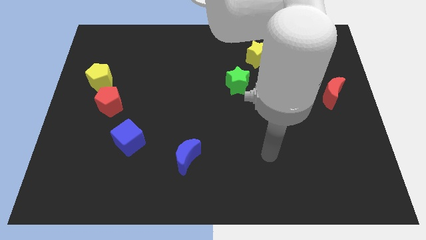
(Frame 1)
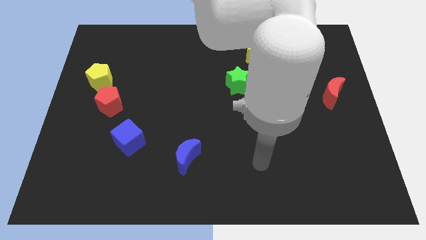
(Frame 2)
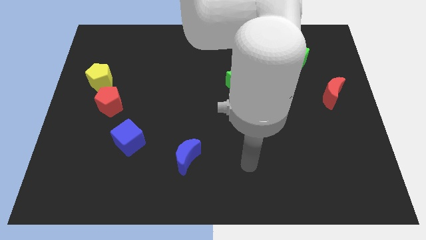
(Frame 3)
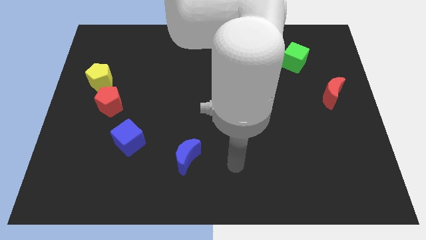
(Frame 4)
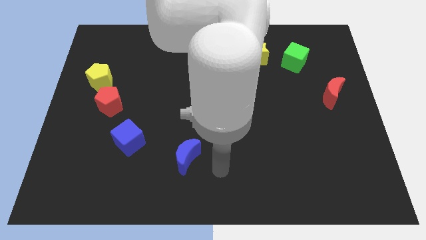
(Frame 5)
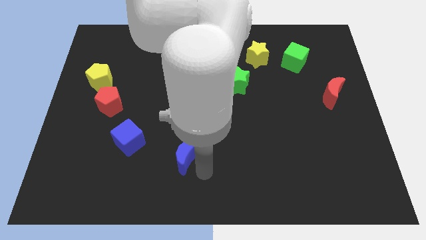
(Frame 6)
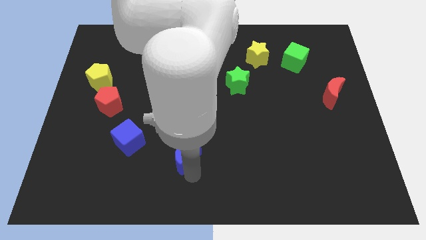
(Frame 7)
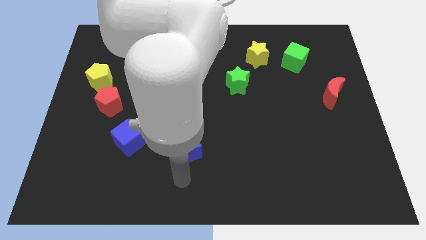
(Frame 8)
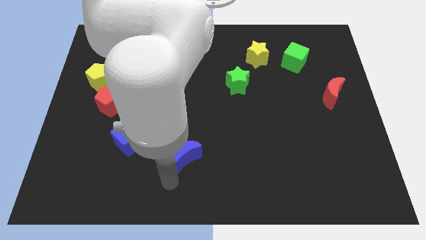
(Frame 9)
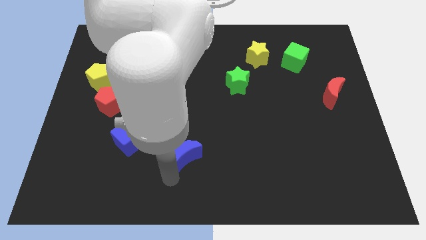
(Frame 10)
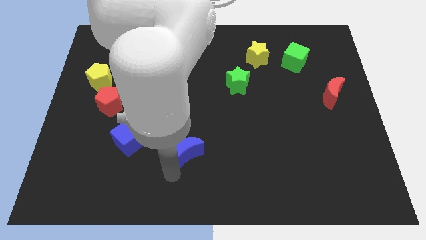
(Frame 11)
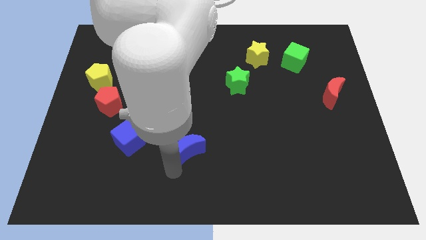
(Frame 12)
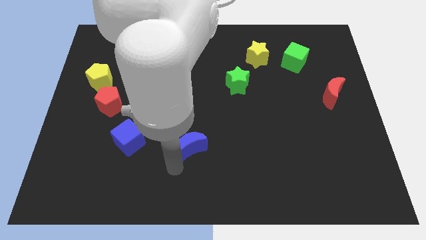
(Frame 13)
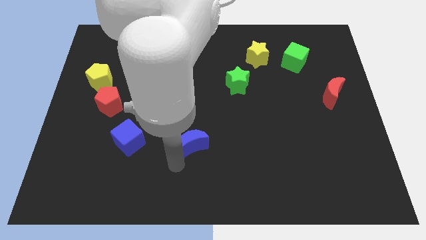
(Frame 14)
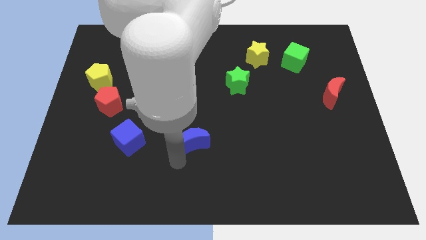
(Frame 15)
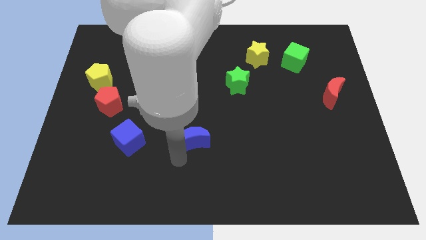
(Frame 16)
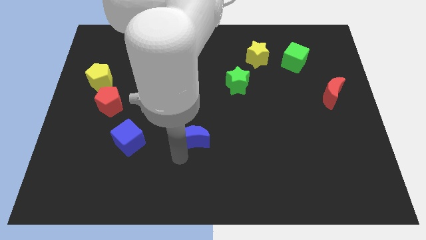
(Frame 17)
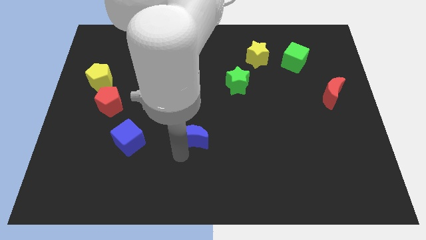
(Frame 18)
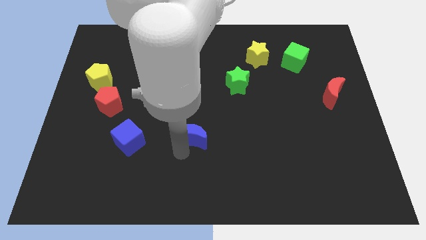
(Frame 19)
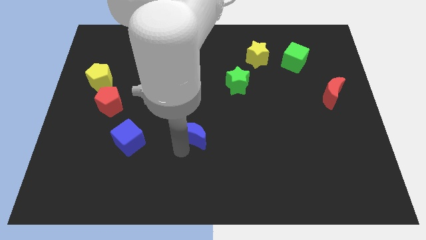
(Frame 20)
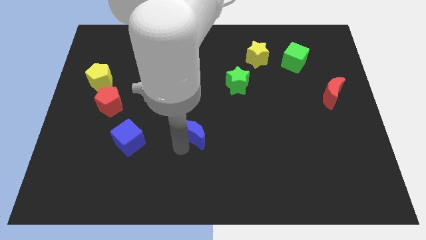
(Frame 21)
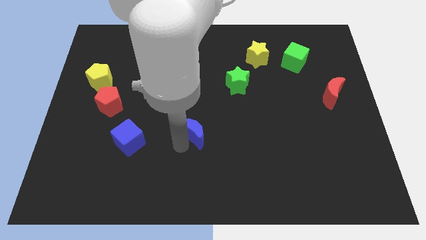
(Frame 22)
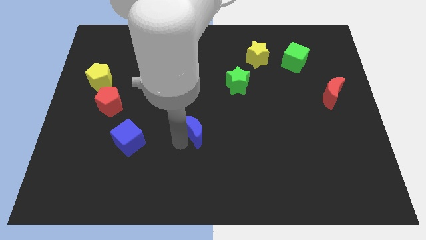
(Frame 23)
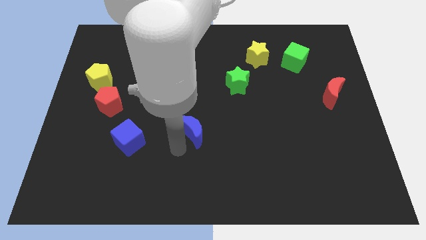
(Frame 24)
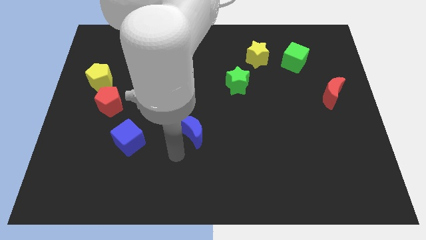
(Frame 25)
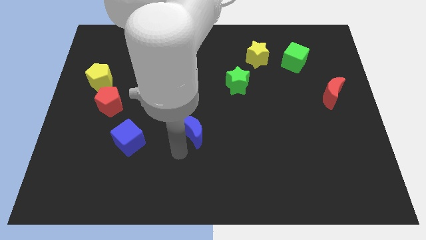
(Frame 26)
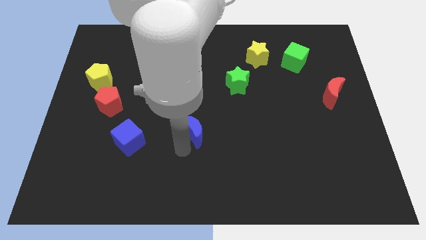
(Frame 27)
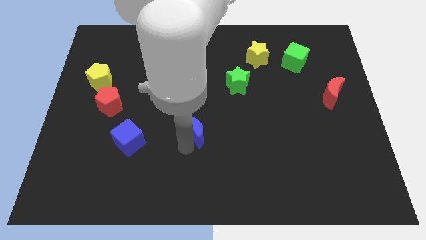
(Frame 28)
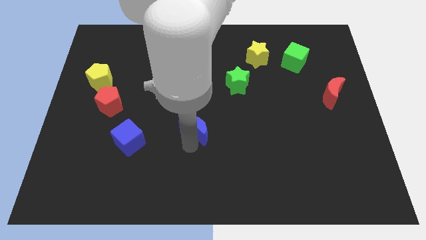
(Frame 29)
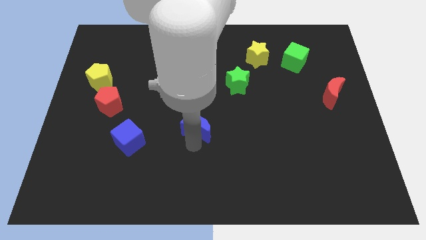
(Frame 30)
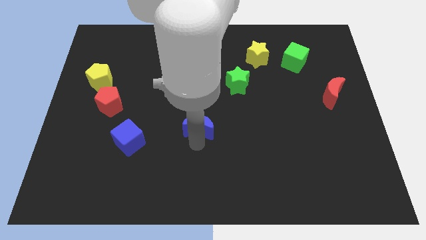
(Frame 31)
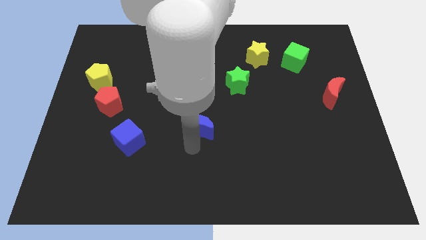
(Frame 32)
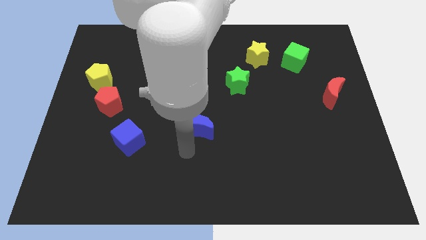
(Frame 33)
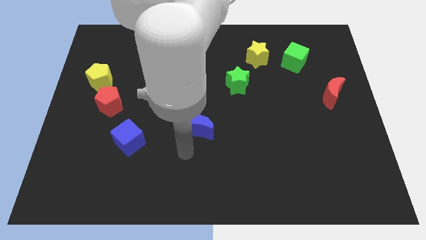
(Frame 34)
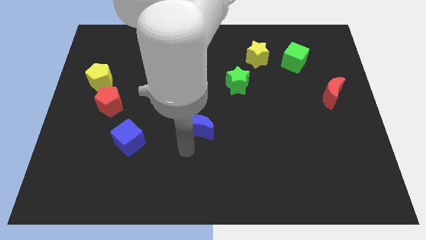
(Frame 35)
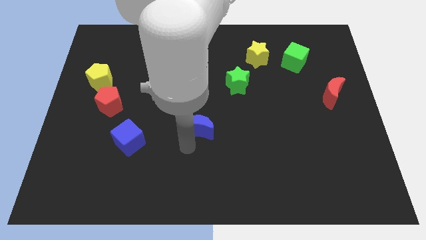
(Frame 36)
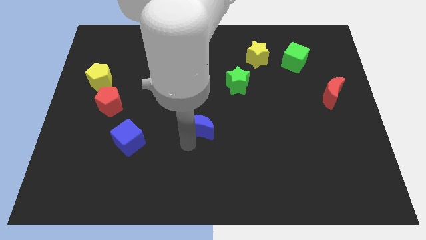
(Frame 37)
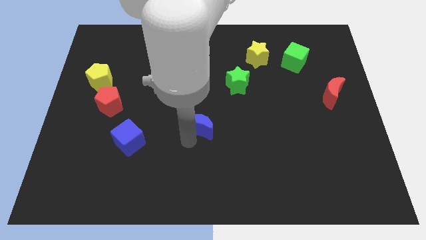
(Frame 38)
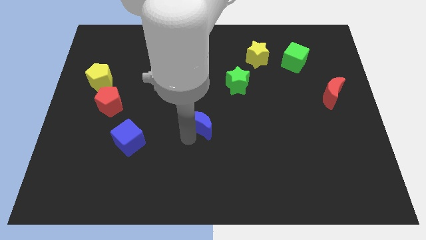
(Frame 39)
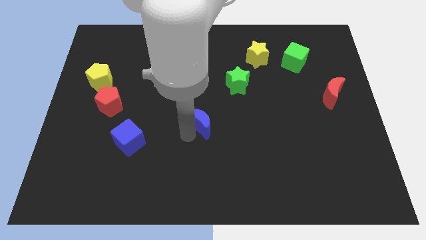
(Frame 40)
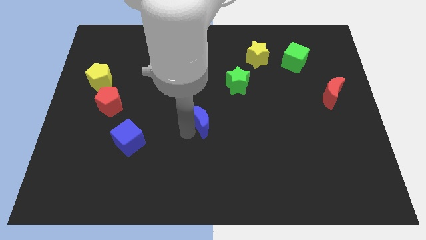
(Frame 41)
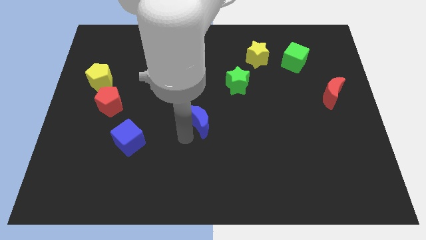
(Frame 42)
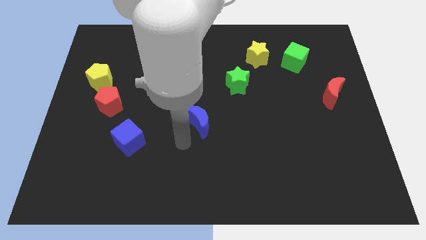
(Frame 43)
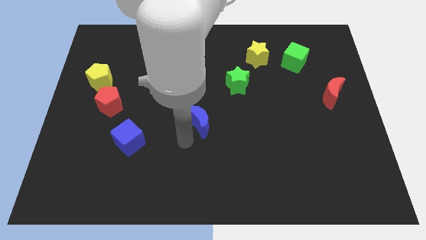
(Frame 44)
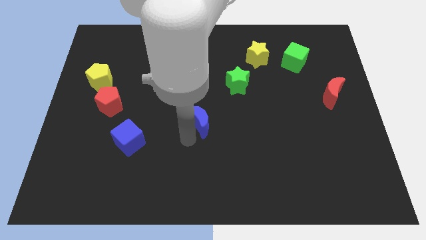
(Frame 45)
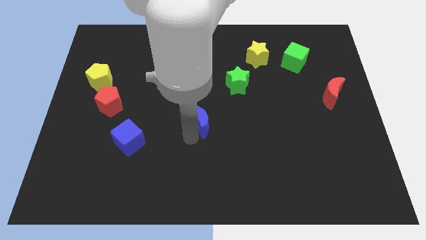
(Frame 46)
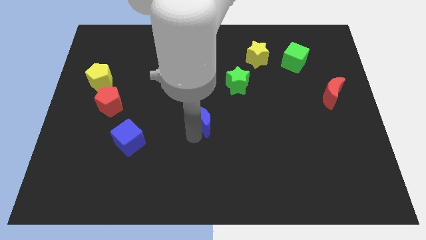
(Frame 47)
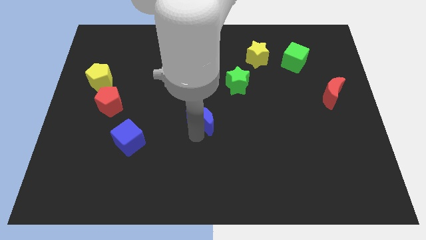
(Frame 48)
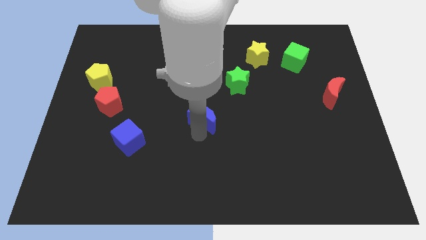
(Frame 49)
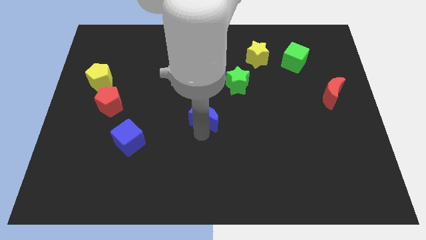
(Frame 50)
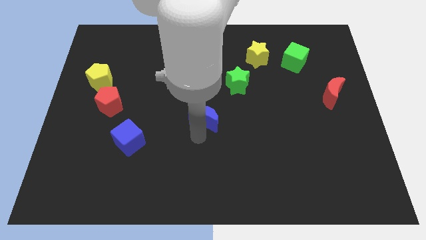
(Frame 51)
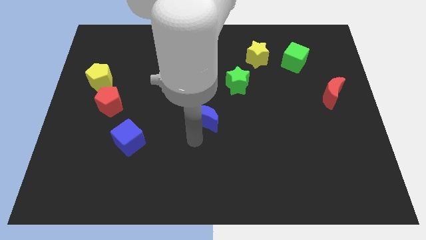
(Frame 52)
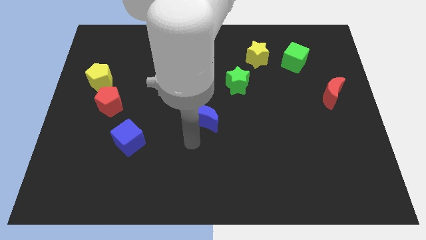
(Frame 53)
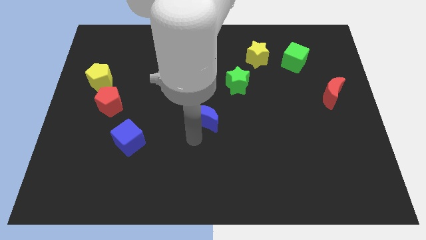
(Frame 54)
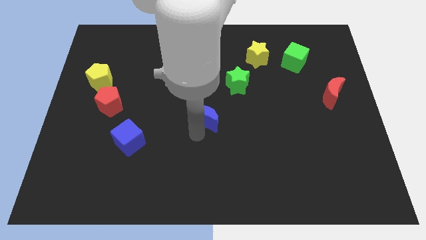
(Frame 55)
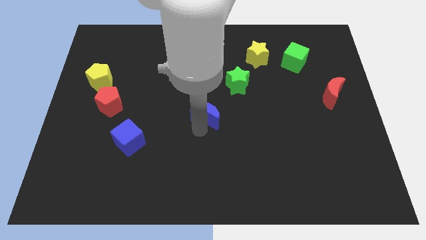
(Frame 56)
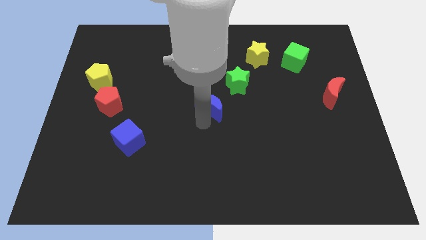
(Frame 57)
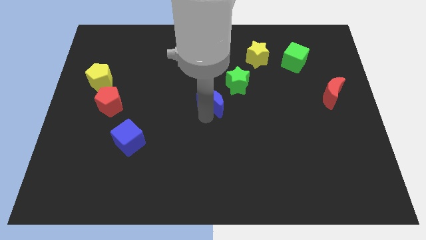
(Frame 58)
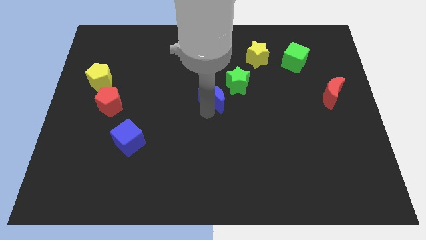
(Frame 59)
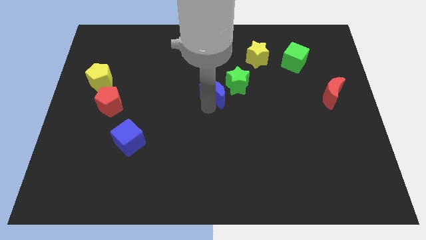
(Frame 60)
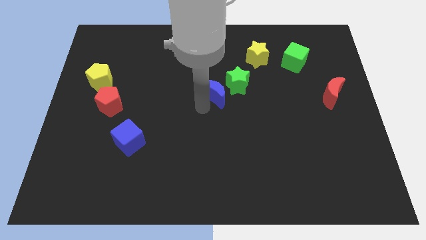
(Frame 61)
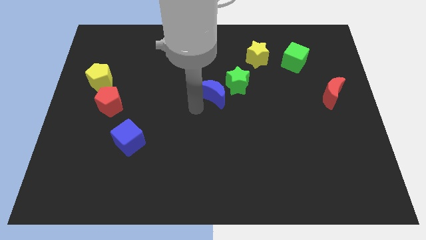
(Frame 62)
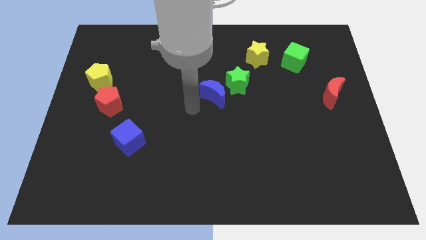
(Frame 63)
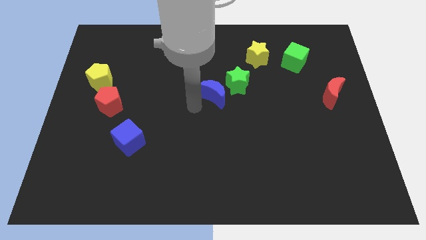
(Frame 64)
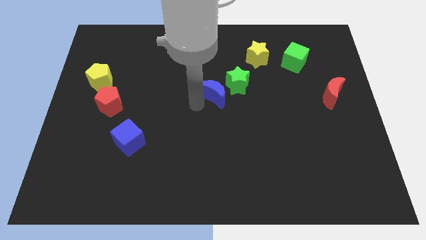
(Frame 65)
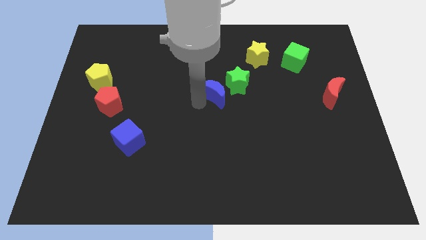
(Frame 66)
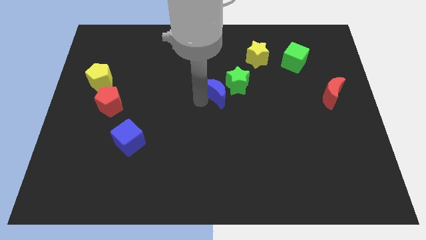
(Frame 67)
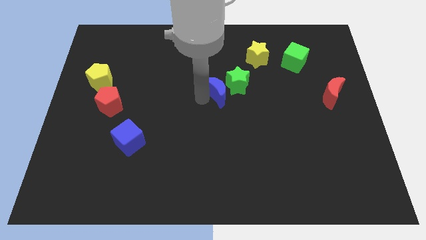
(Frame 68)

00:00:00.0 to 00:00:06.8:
push the blue moon towards the green star

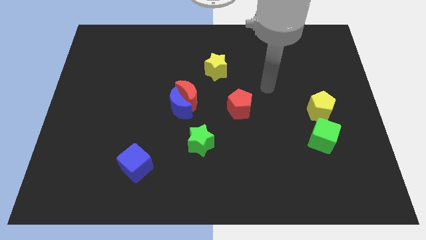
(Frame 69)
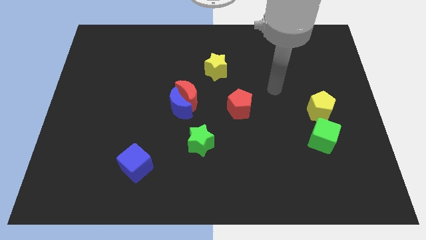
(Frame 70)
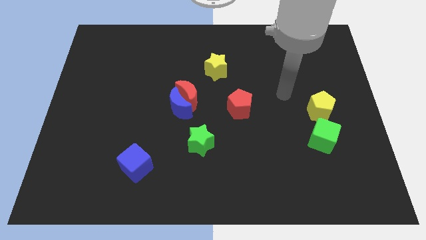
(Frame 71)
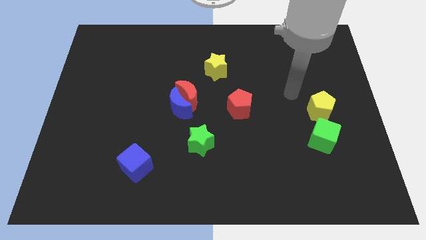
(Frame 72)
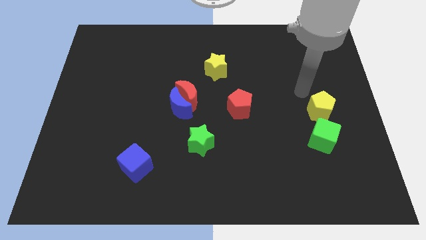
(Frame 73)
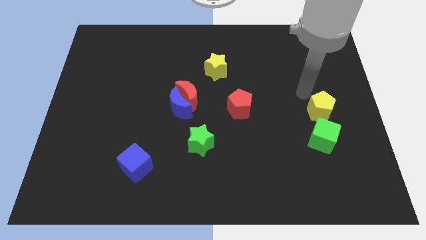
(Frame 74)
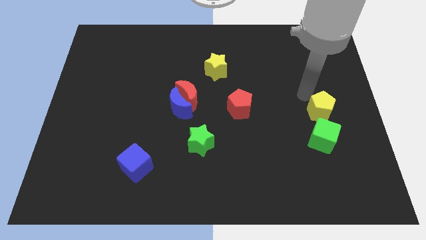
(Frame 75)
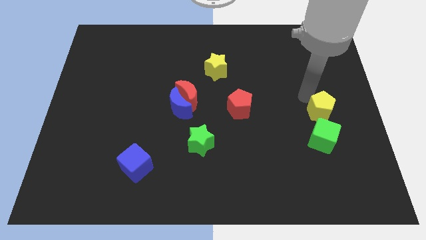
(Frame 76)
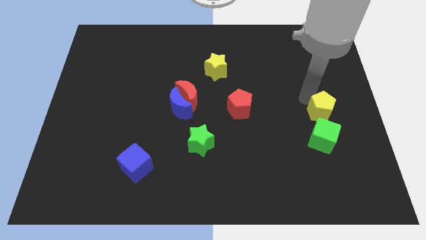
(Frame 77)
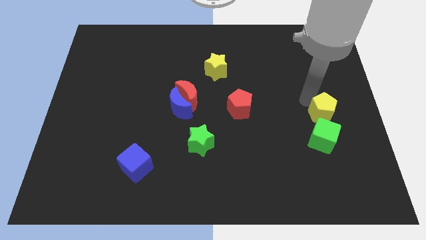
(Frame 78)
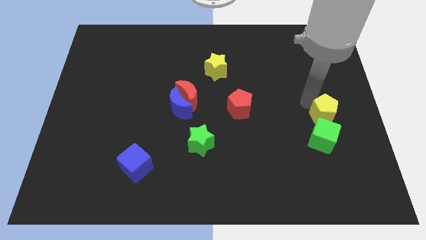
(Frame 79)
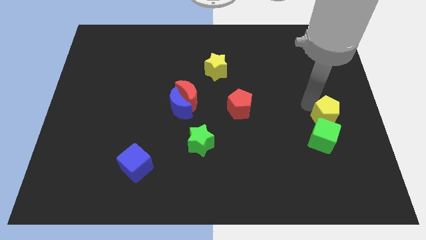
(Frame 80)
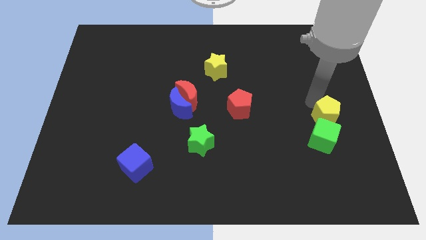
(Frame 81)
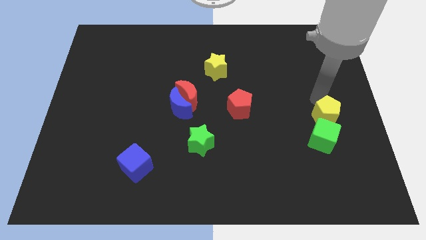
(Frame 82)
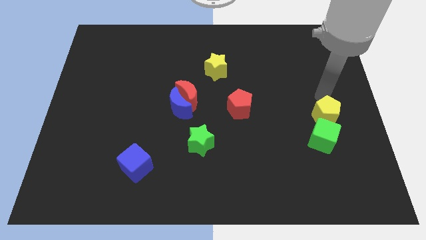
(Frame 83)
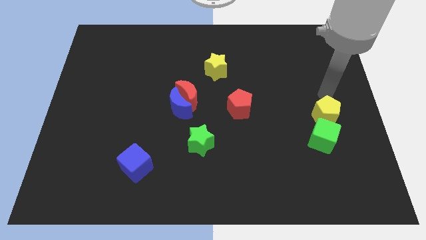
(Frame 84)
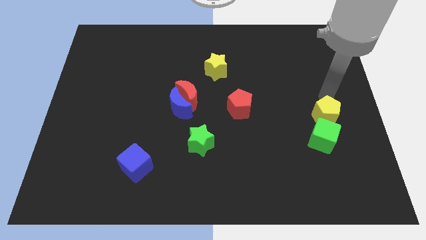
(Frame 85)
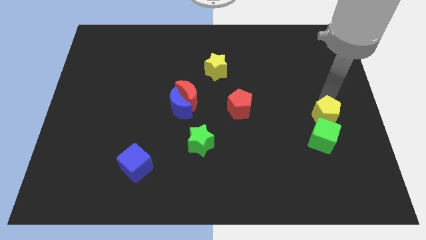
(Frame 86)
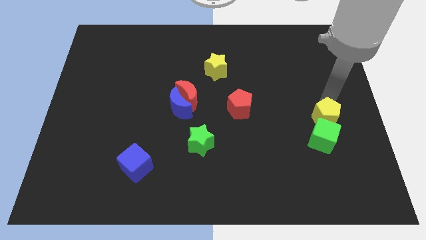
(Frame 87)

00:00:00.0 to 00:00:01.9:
move the yellow pentagon to the green cube
